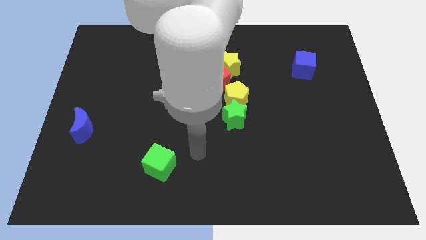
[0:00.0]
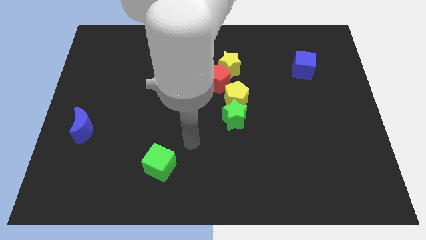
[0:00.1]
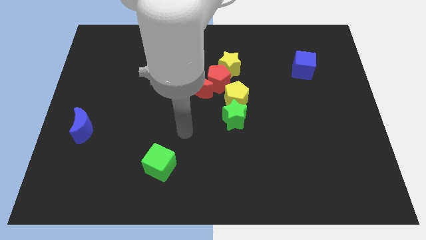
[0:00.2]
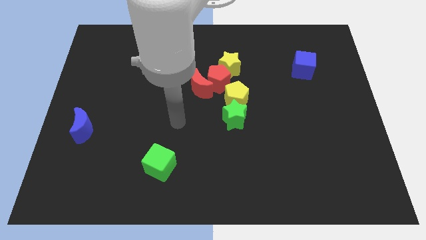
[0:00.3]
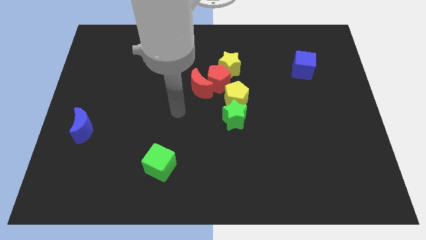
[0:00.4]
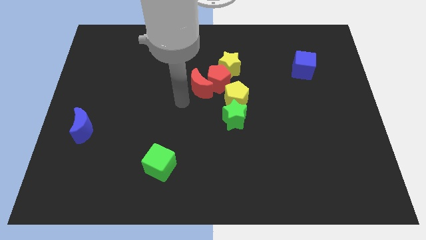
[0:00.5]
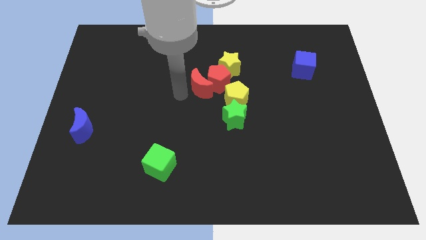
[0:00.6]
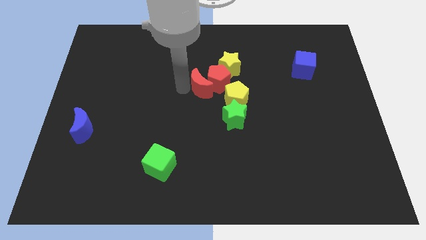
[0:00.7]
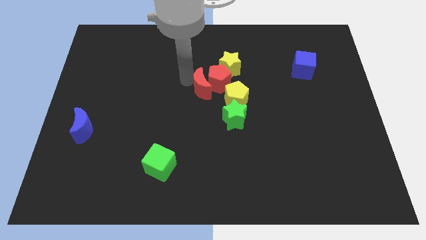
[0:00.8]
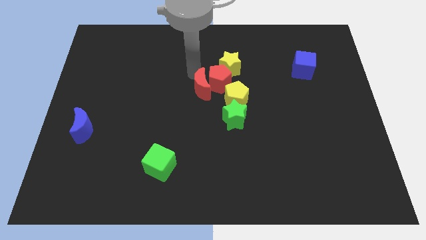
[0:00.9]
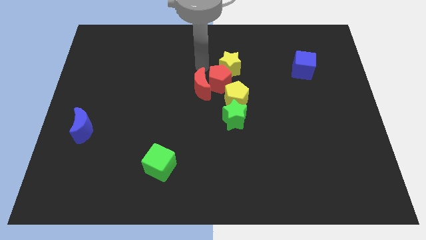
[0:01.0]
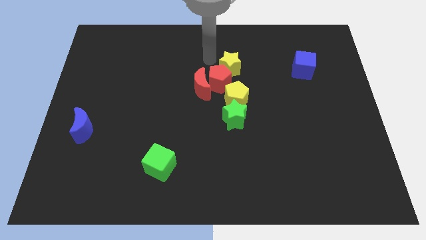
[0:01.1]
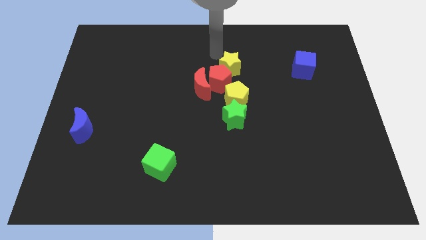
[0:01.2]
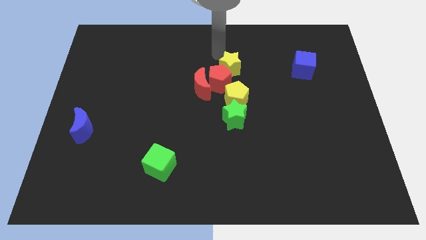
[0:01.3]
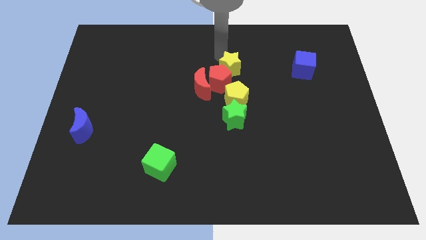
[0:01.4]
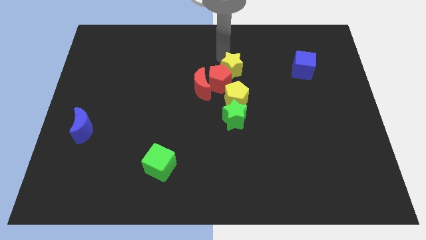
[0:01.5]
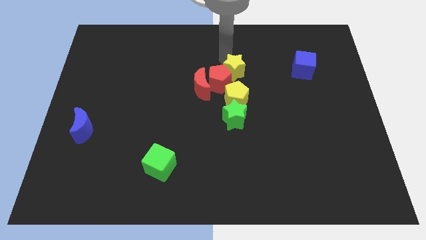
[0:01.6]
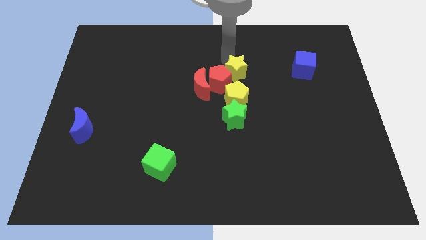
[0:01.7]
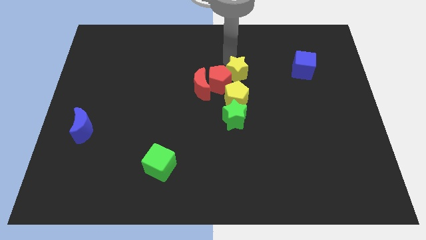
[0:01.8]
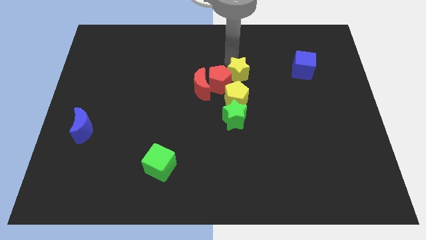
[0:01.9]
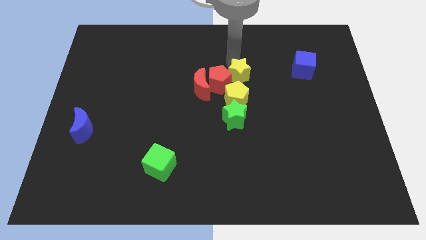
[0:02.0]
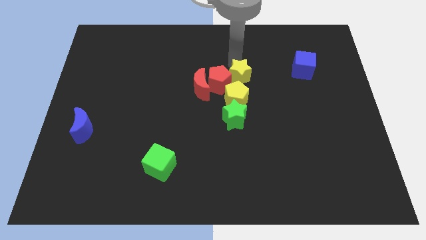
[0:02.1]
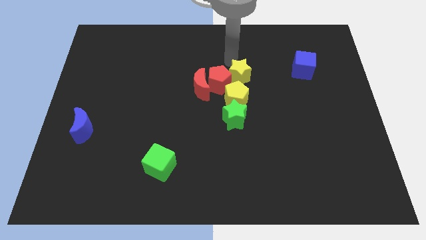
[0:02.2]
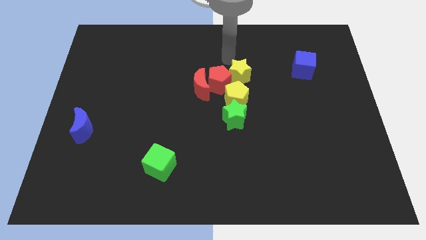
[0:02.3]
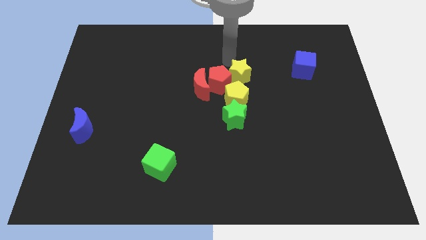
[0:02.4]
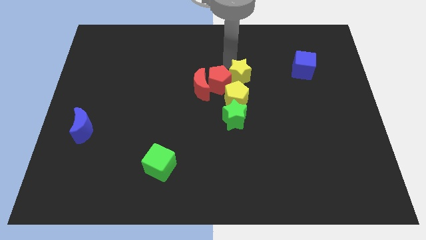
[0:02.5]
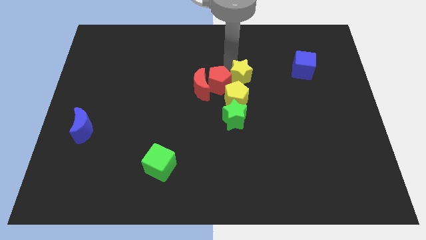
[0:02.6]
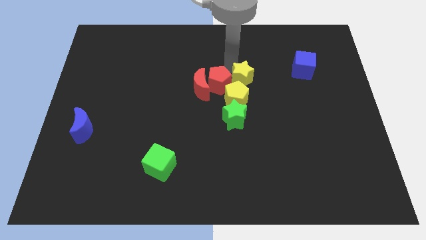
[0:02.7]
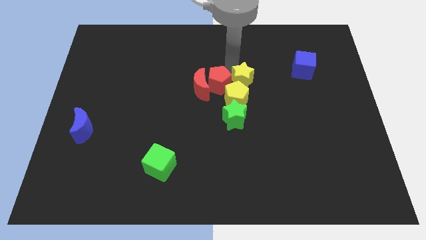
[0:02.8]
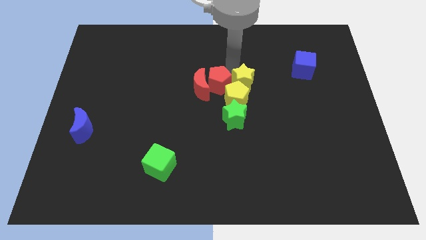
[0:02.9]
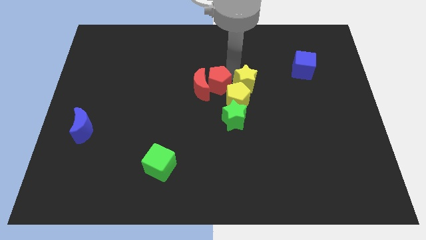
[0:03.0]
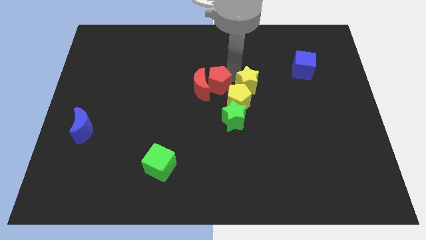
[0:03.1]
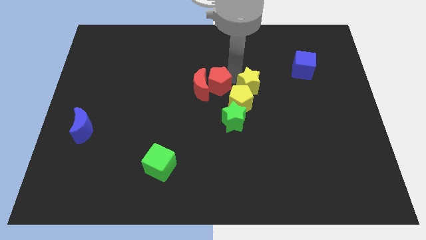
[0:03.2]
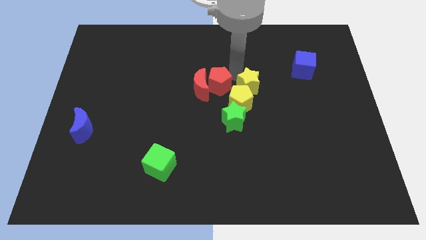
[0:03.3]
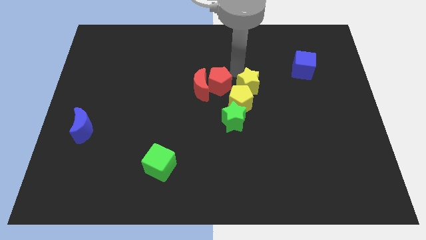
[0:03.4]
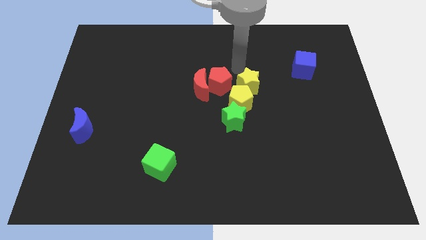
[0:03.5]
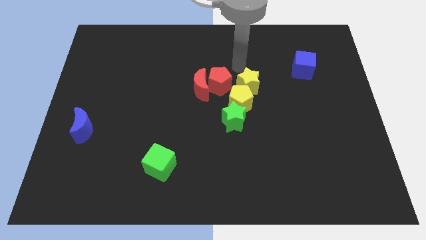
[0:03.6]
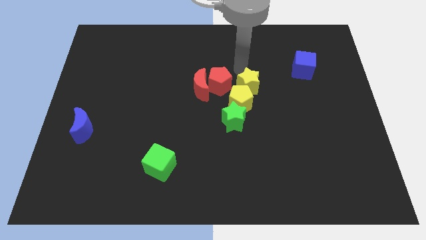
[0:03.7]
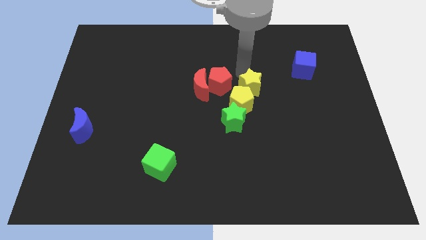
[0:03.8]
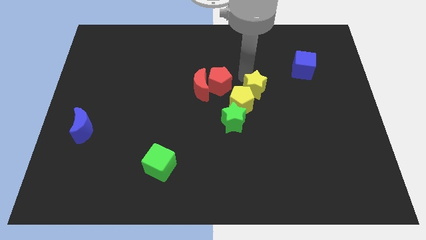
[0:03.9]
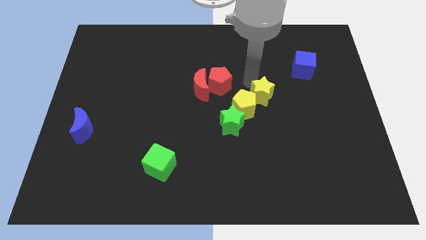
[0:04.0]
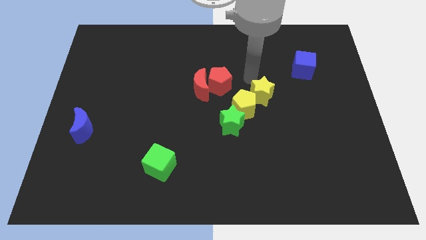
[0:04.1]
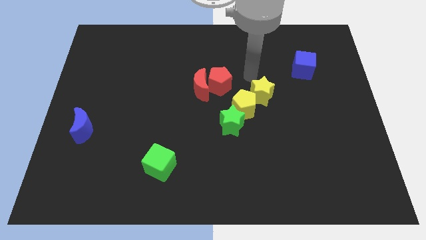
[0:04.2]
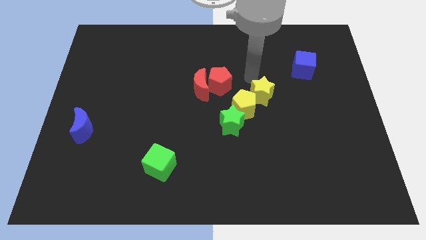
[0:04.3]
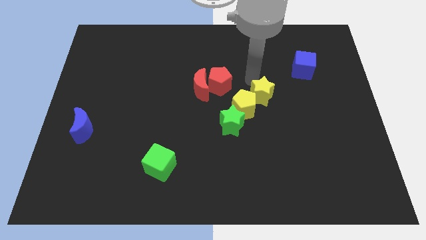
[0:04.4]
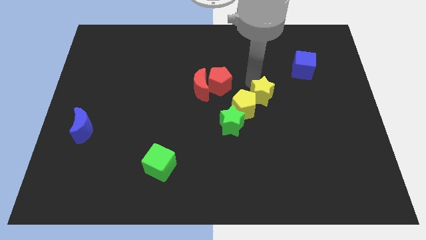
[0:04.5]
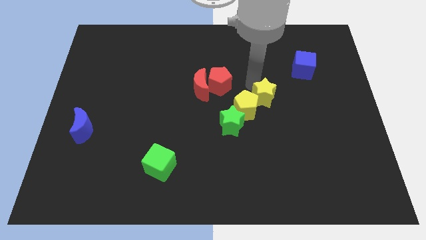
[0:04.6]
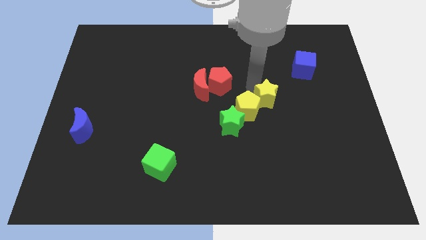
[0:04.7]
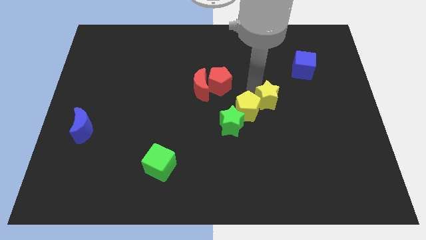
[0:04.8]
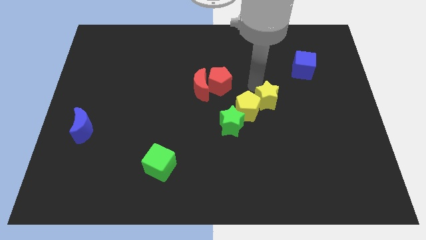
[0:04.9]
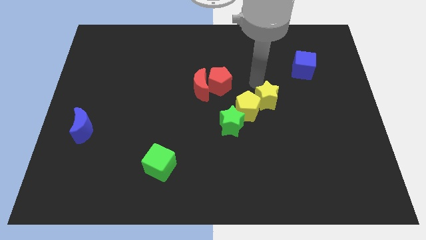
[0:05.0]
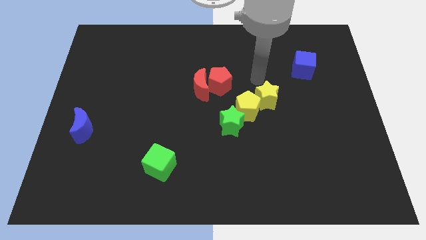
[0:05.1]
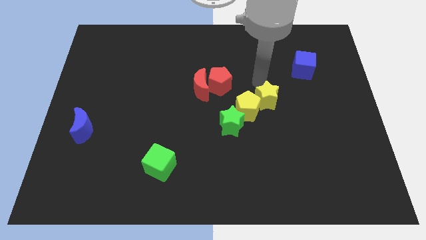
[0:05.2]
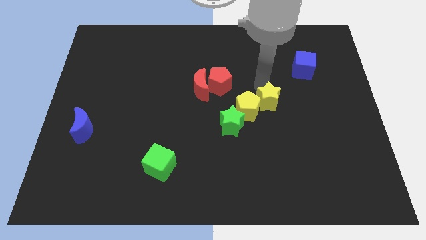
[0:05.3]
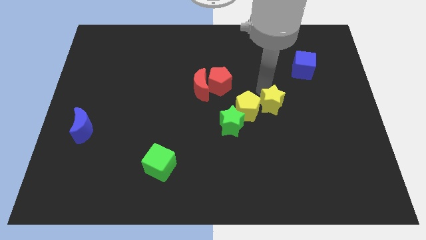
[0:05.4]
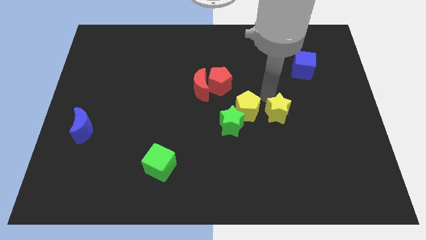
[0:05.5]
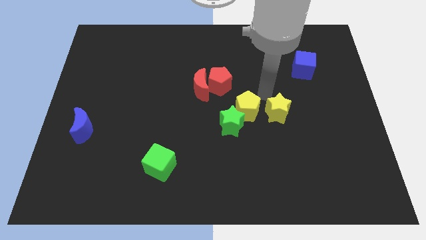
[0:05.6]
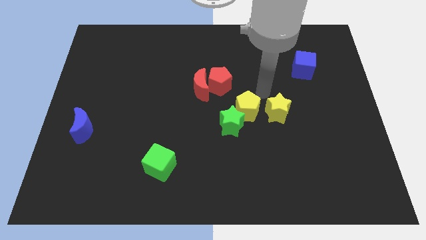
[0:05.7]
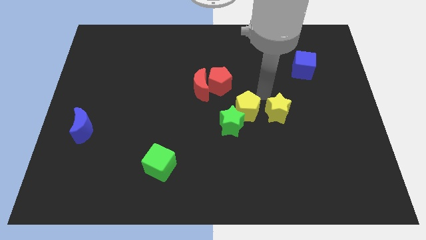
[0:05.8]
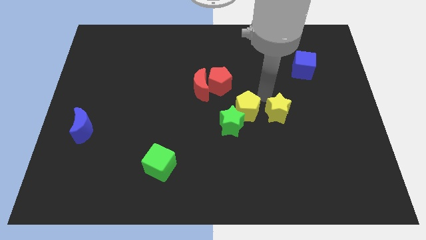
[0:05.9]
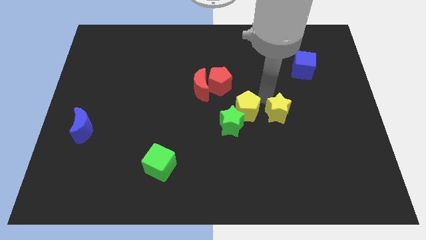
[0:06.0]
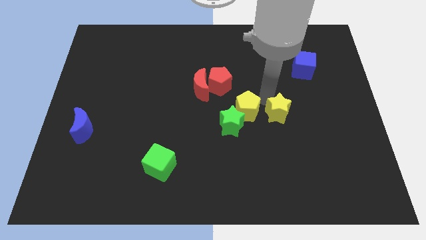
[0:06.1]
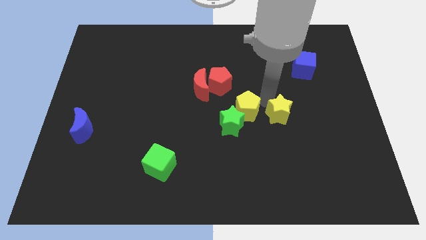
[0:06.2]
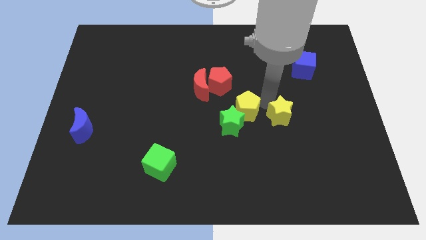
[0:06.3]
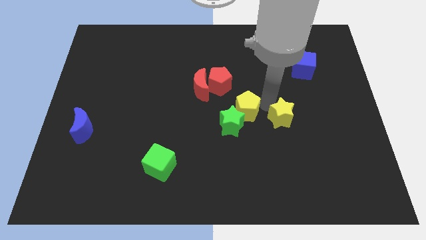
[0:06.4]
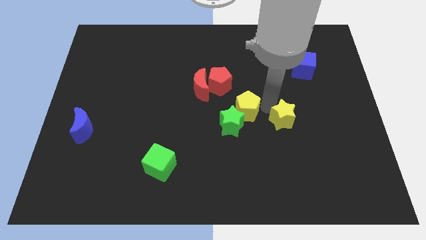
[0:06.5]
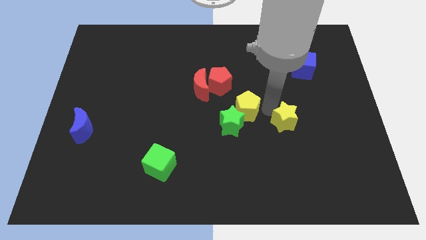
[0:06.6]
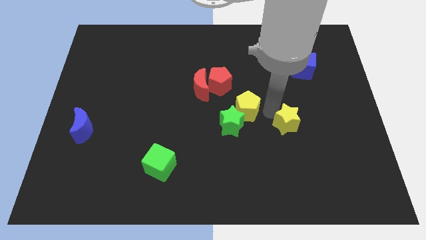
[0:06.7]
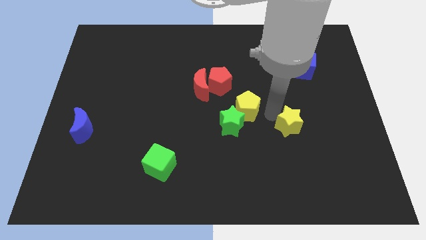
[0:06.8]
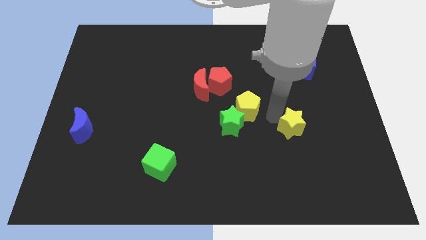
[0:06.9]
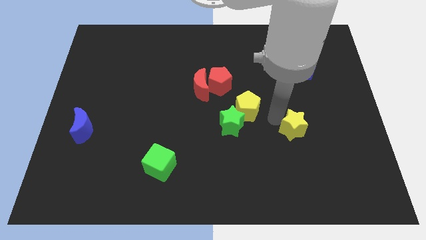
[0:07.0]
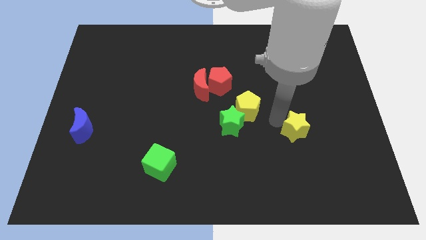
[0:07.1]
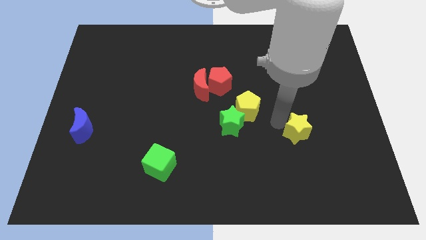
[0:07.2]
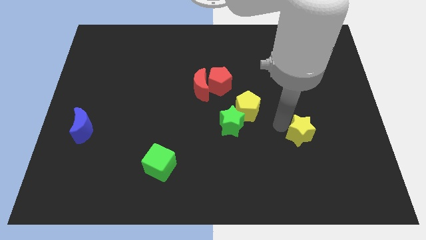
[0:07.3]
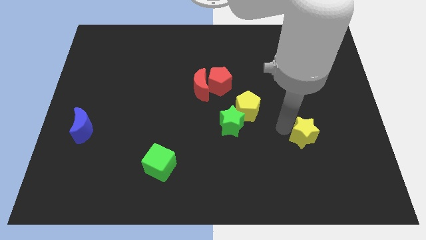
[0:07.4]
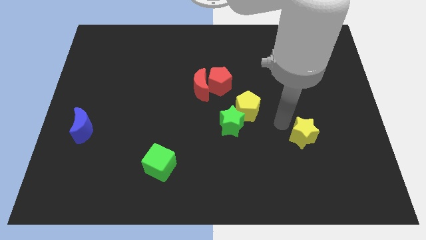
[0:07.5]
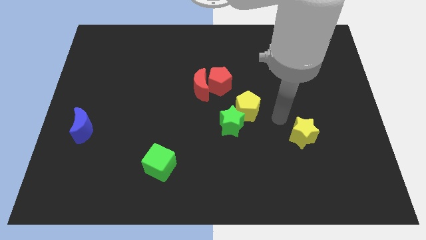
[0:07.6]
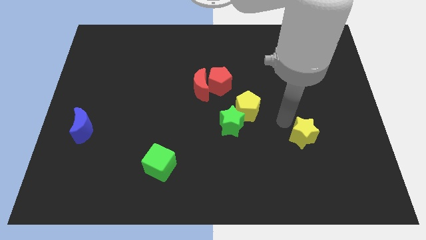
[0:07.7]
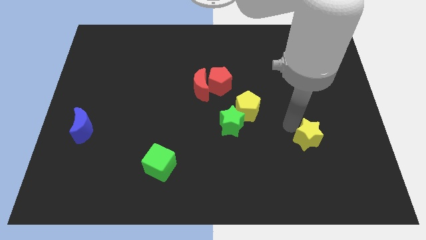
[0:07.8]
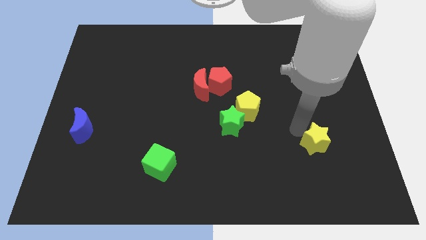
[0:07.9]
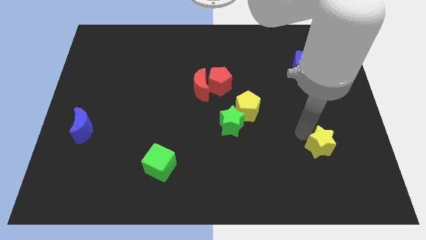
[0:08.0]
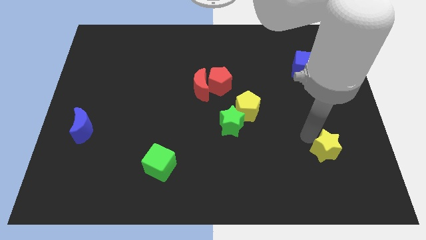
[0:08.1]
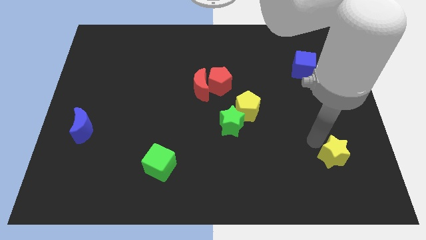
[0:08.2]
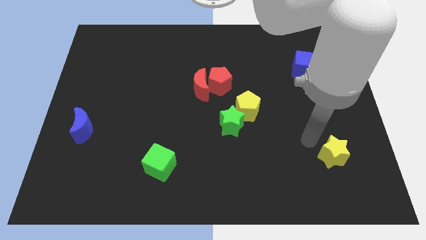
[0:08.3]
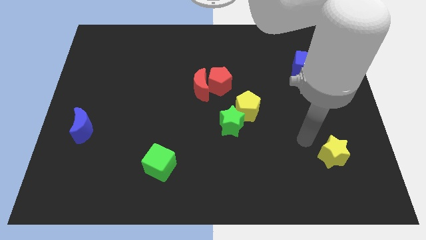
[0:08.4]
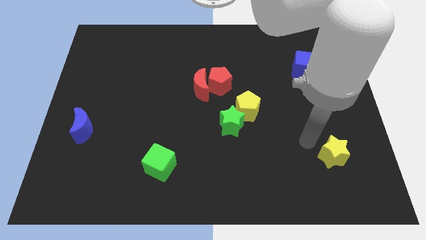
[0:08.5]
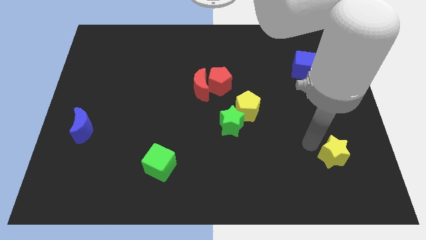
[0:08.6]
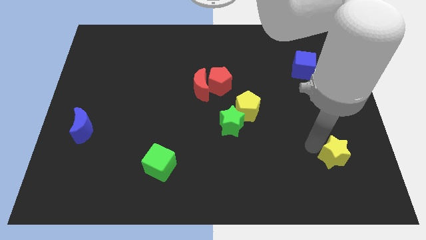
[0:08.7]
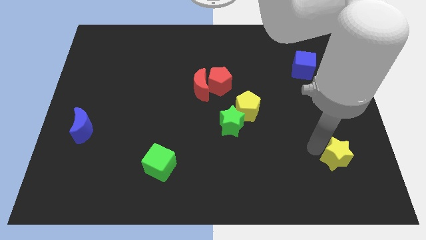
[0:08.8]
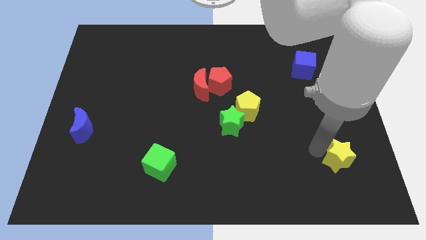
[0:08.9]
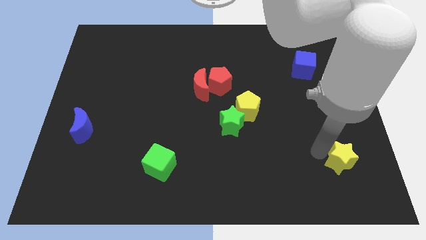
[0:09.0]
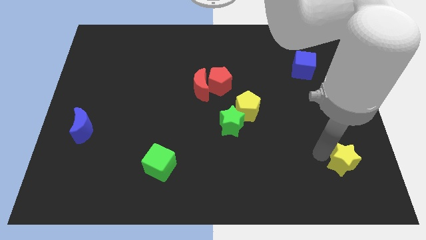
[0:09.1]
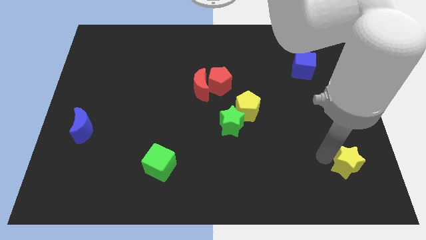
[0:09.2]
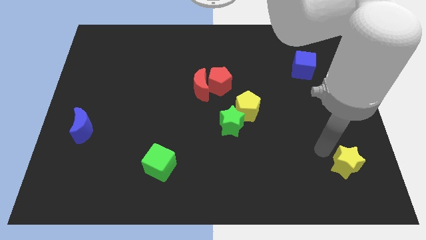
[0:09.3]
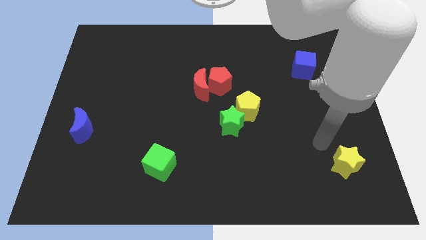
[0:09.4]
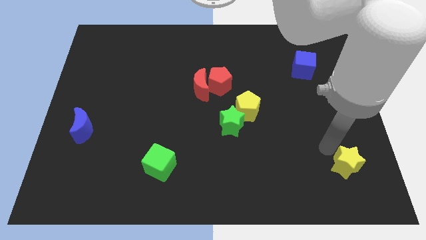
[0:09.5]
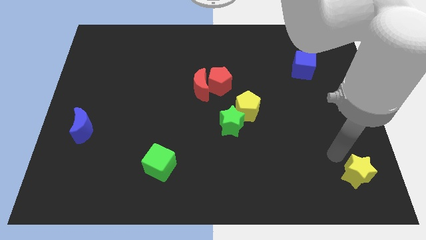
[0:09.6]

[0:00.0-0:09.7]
put the yellow star to the bottom right
